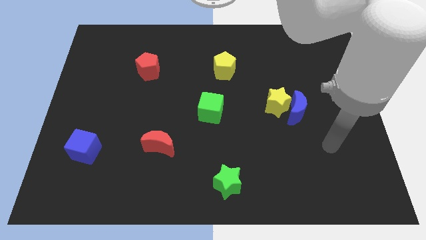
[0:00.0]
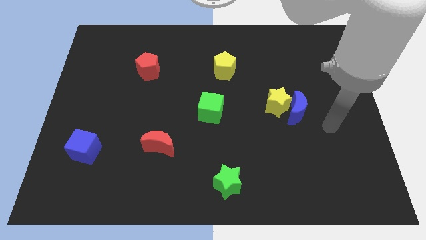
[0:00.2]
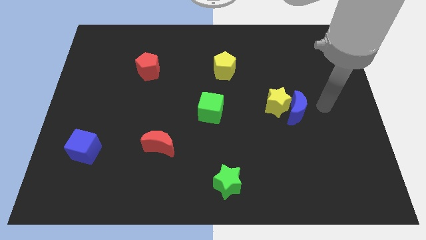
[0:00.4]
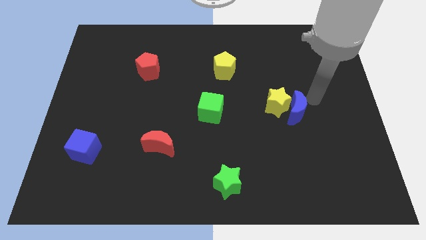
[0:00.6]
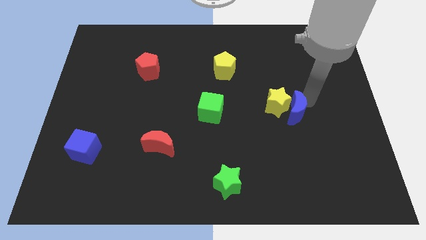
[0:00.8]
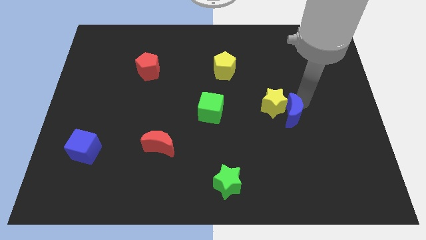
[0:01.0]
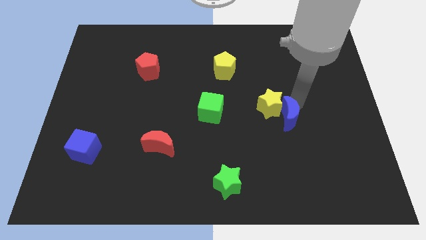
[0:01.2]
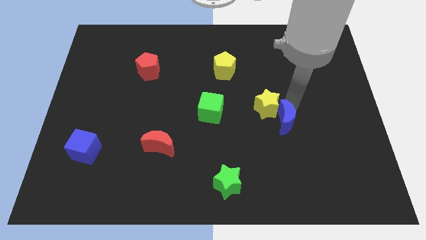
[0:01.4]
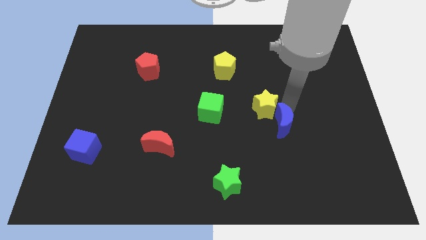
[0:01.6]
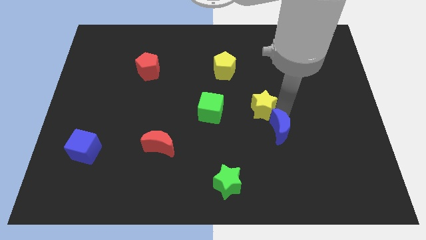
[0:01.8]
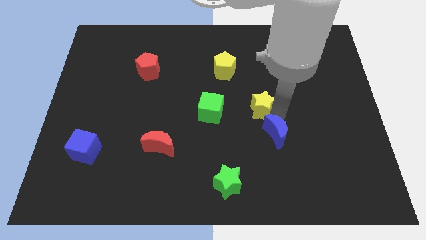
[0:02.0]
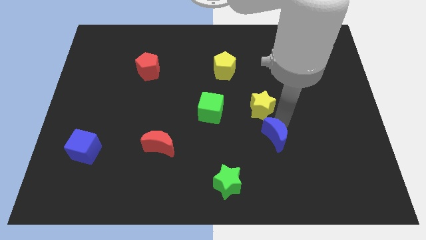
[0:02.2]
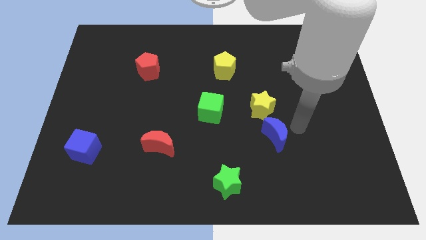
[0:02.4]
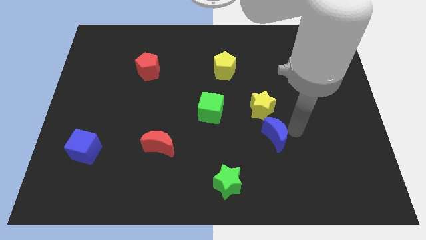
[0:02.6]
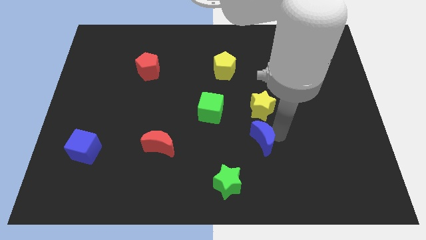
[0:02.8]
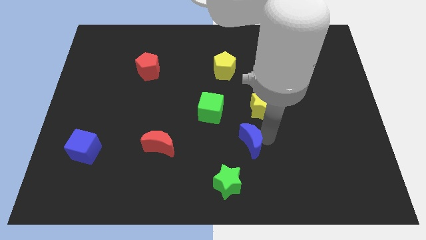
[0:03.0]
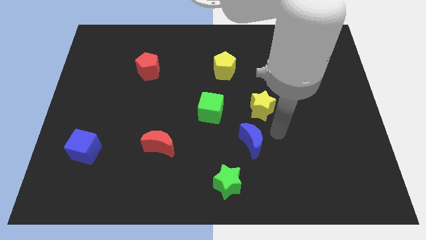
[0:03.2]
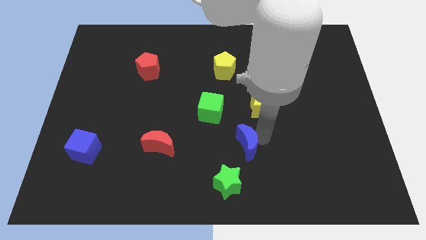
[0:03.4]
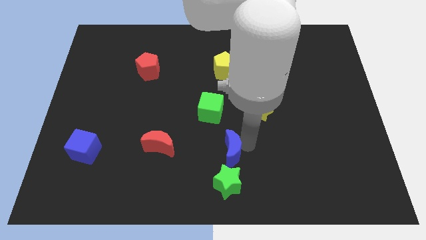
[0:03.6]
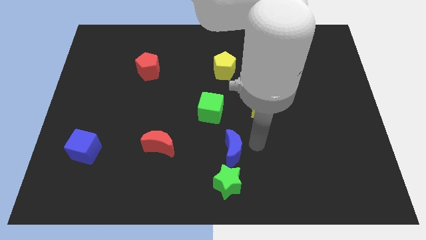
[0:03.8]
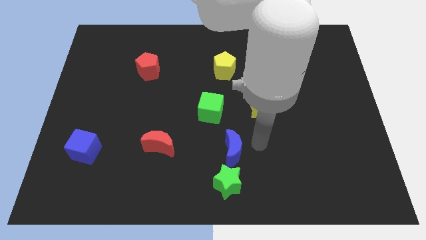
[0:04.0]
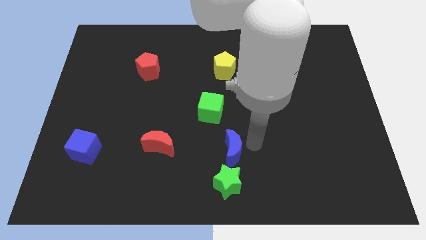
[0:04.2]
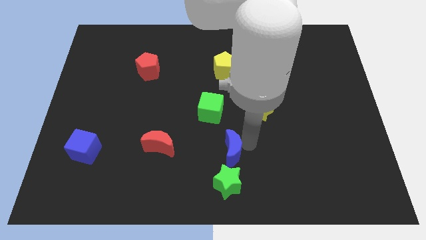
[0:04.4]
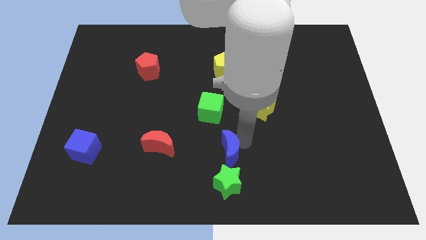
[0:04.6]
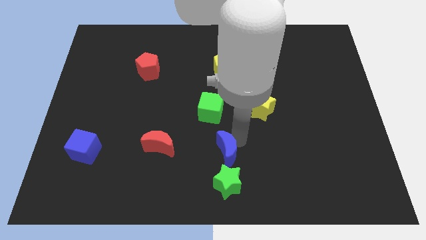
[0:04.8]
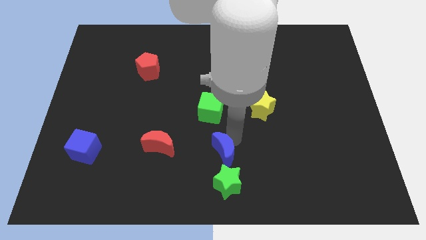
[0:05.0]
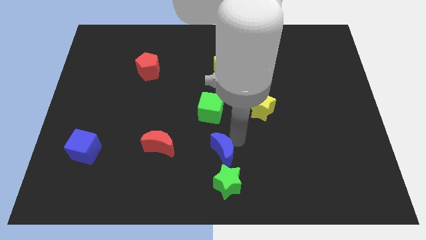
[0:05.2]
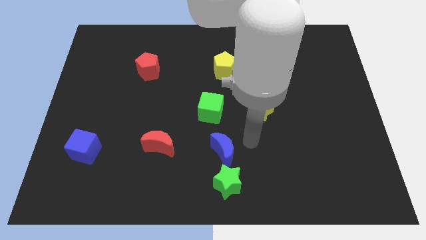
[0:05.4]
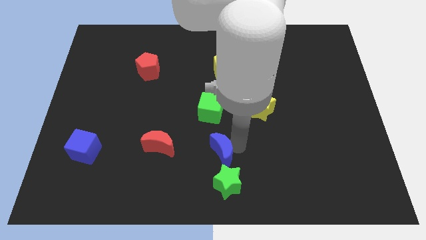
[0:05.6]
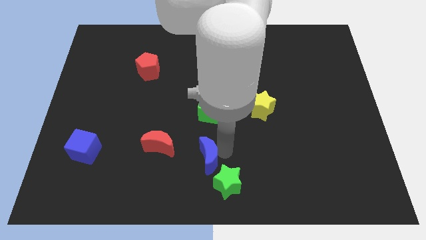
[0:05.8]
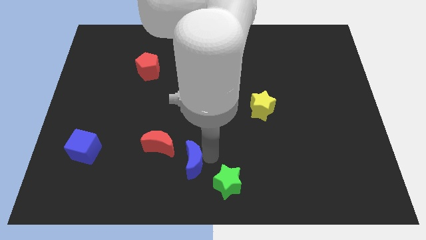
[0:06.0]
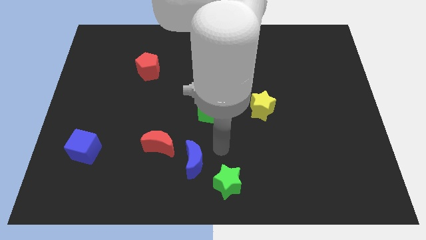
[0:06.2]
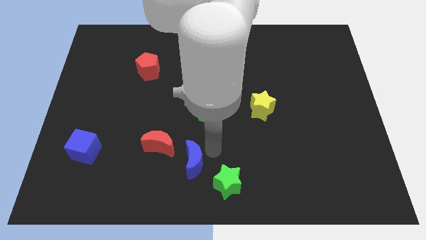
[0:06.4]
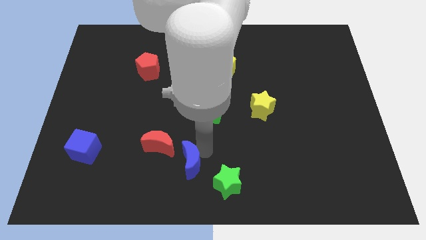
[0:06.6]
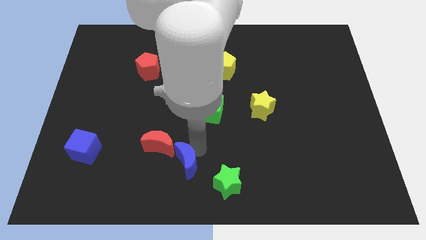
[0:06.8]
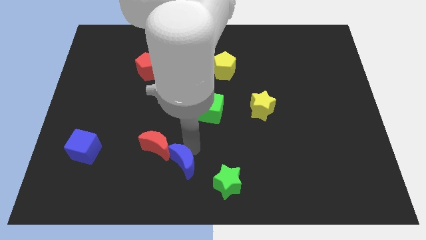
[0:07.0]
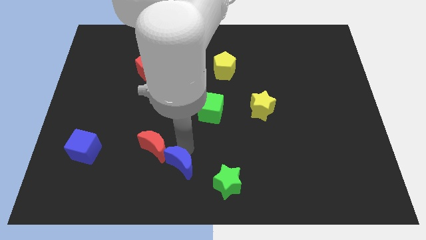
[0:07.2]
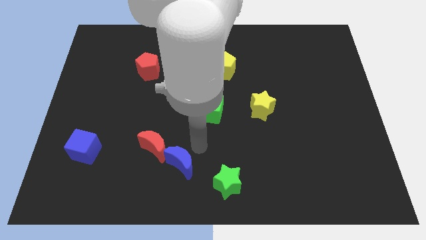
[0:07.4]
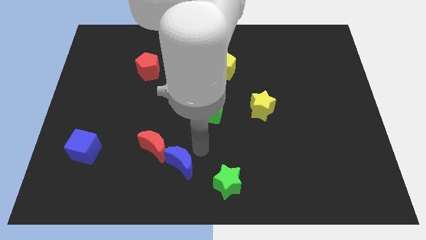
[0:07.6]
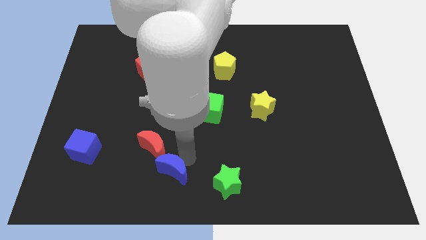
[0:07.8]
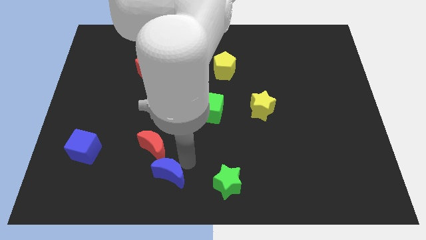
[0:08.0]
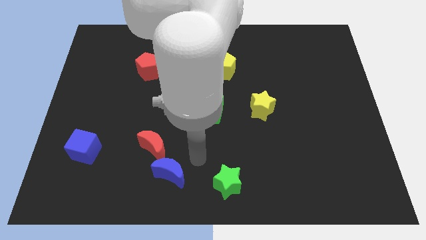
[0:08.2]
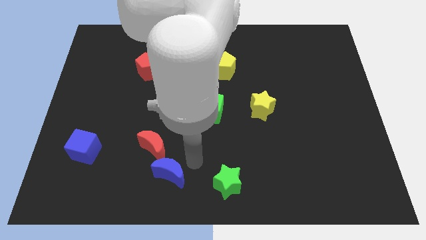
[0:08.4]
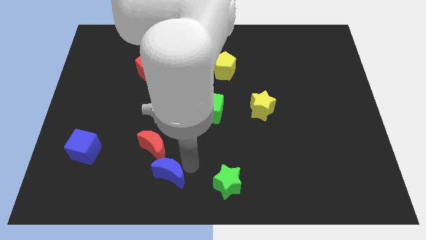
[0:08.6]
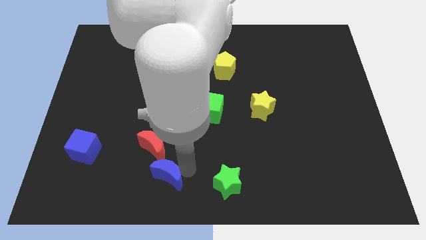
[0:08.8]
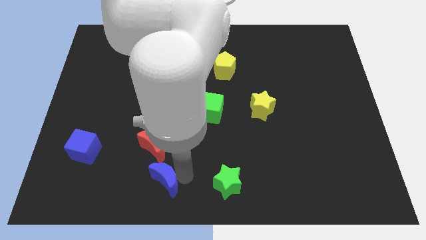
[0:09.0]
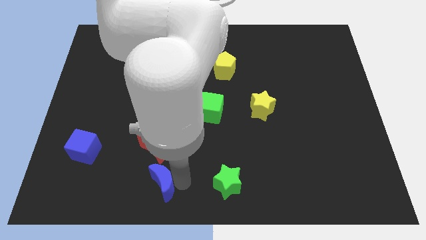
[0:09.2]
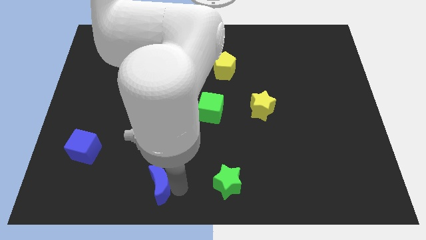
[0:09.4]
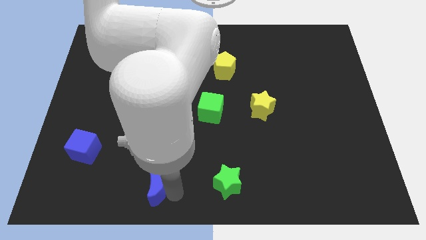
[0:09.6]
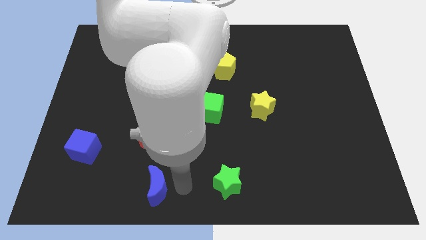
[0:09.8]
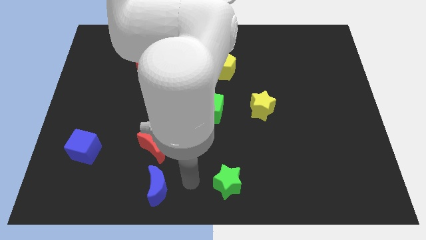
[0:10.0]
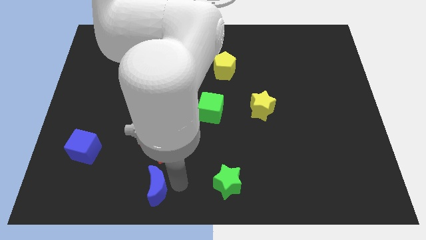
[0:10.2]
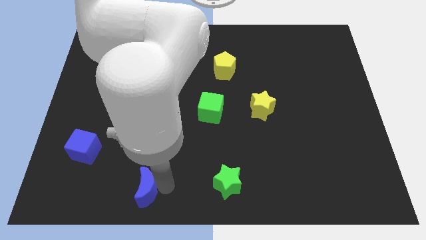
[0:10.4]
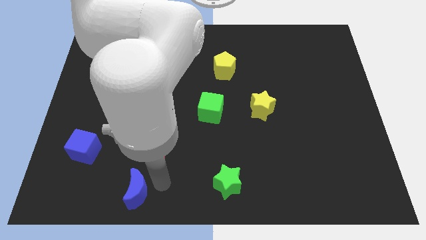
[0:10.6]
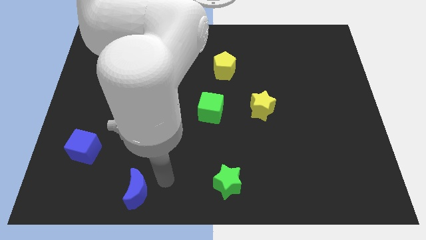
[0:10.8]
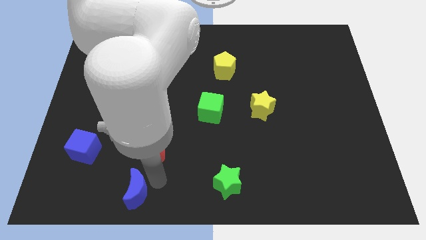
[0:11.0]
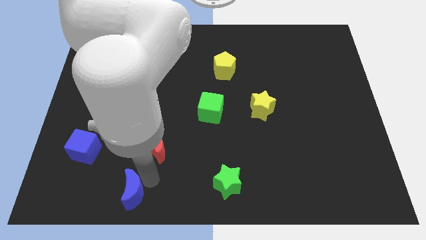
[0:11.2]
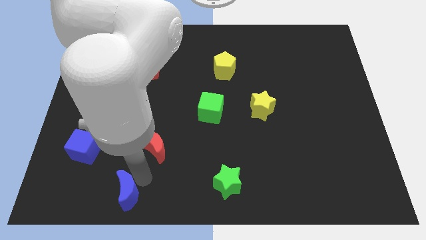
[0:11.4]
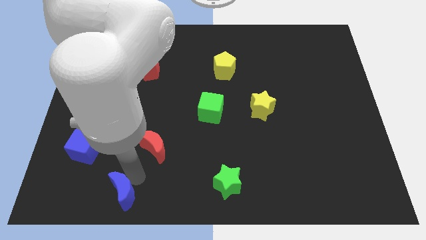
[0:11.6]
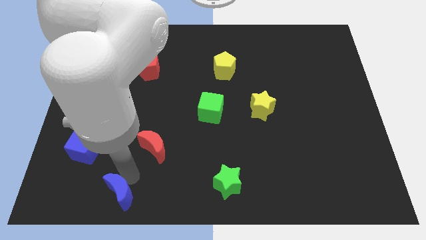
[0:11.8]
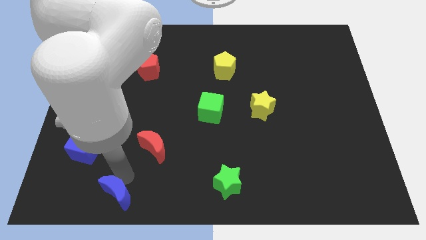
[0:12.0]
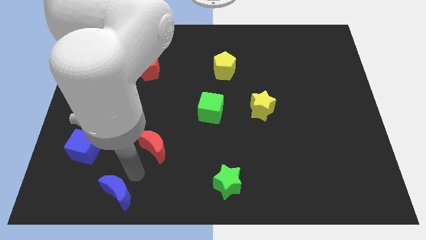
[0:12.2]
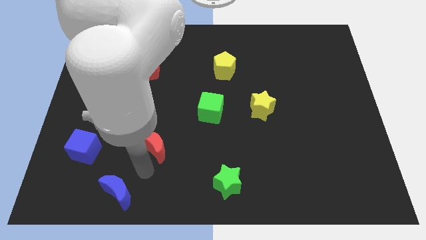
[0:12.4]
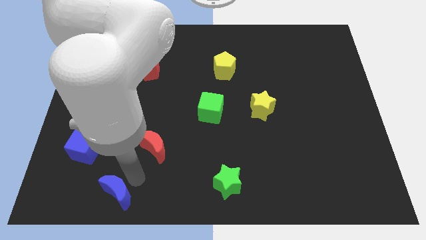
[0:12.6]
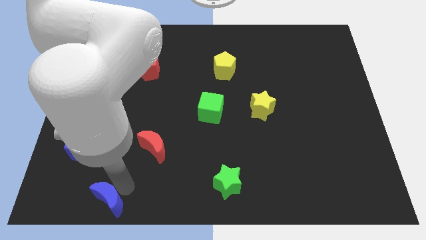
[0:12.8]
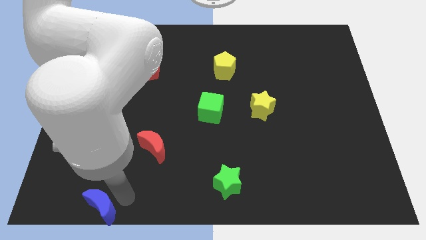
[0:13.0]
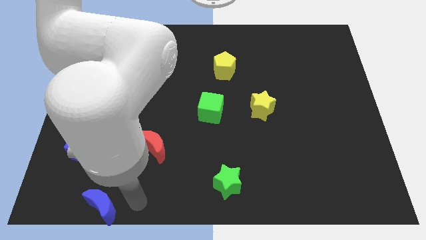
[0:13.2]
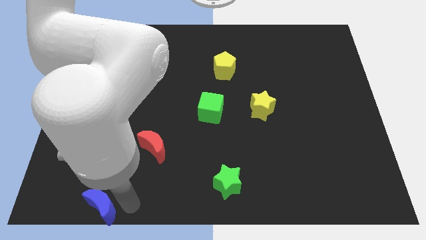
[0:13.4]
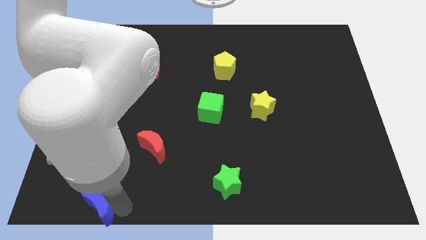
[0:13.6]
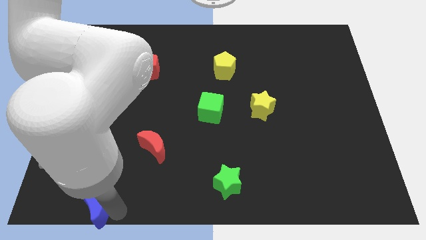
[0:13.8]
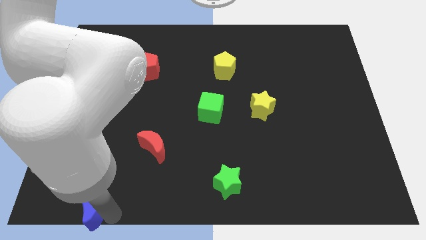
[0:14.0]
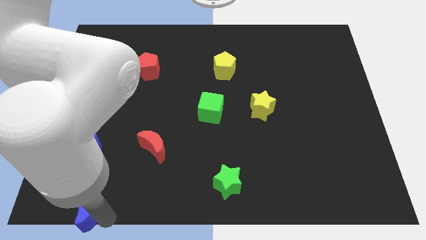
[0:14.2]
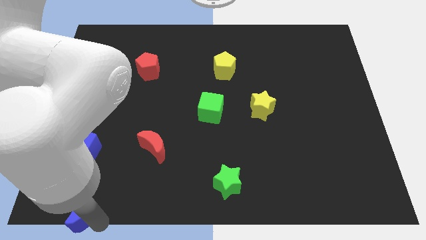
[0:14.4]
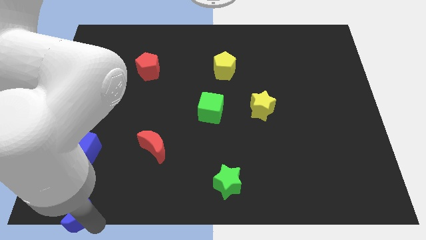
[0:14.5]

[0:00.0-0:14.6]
move the blue moon to the bottom left of the board
